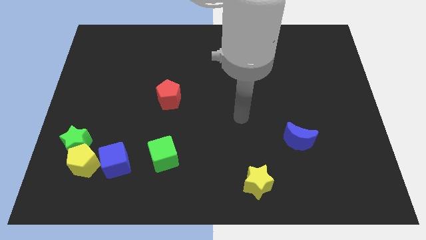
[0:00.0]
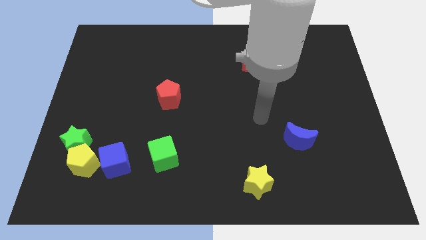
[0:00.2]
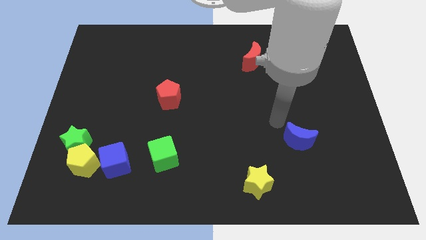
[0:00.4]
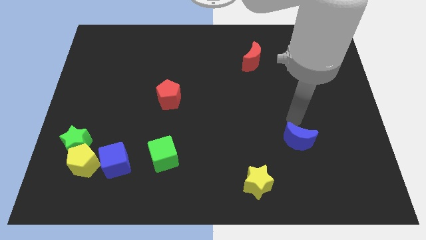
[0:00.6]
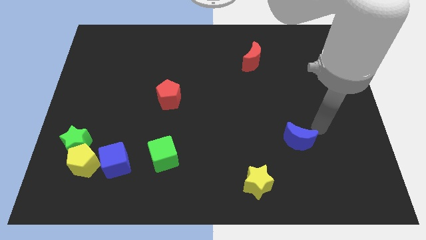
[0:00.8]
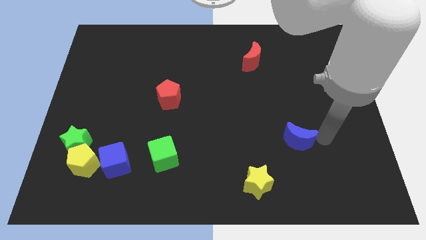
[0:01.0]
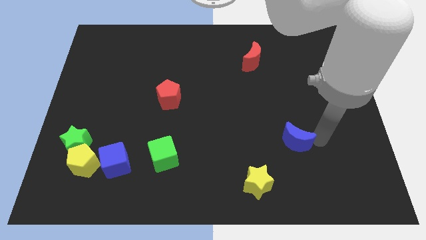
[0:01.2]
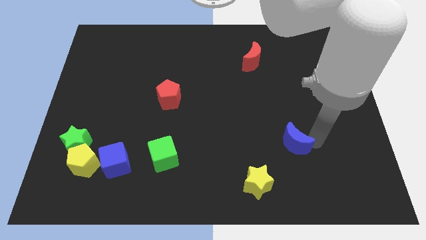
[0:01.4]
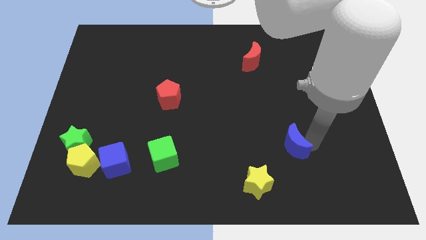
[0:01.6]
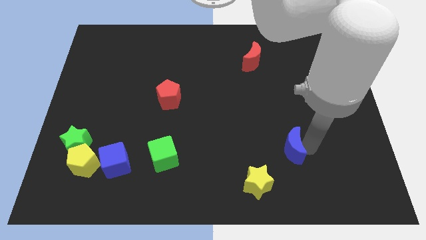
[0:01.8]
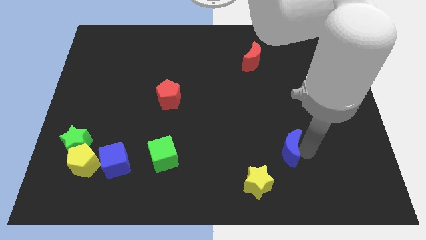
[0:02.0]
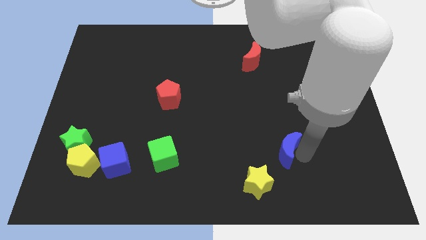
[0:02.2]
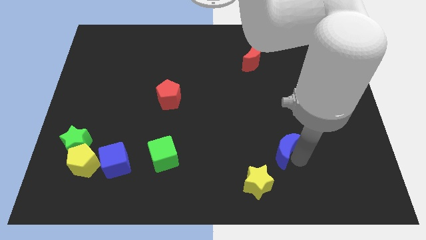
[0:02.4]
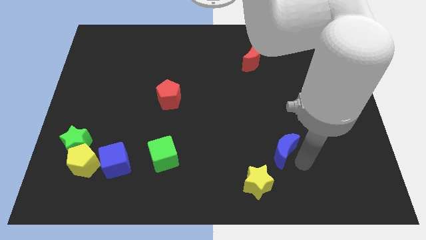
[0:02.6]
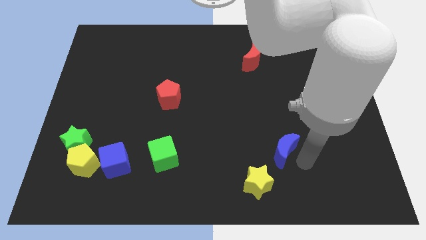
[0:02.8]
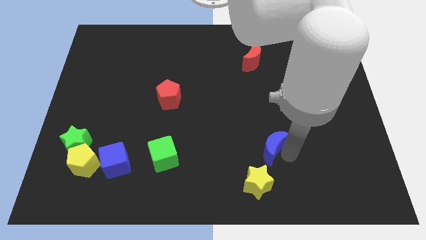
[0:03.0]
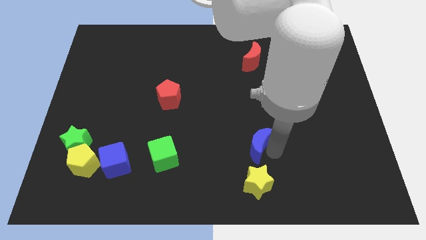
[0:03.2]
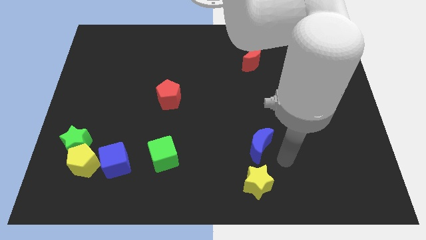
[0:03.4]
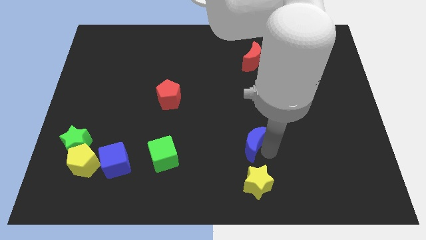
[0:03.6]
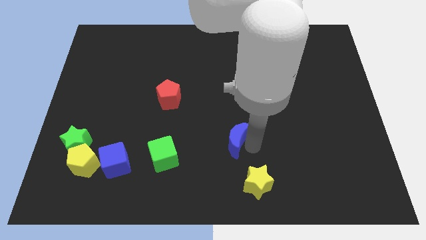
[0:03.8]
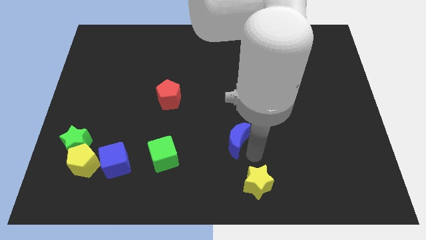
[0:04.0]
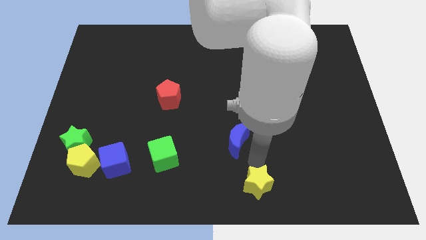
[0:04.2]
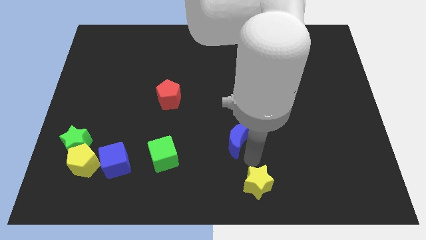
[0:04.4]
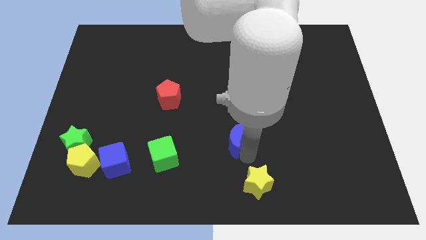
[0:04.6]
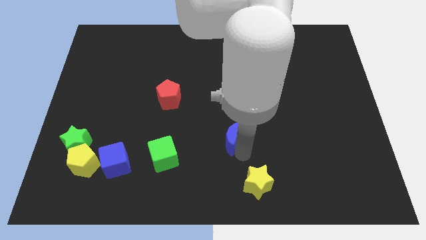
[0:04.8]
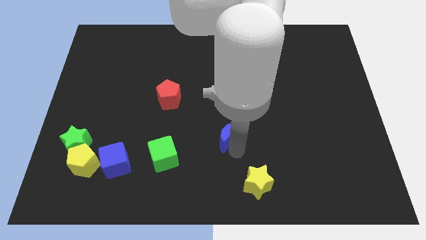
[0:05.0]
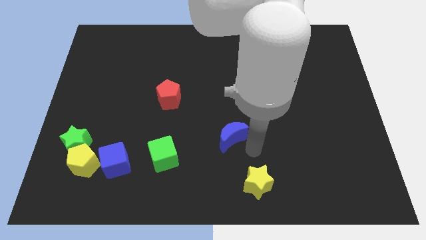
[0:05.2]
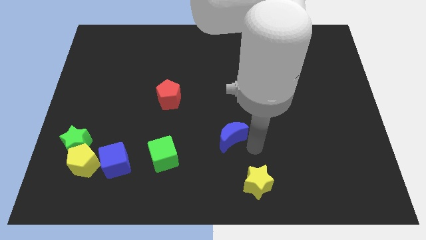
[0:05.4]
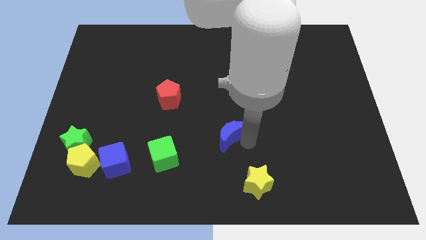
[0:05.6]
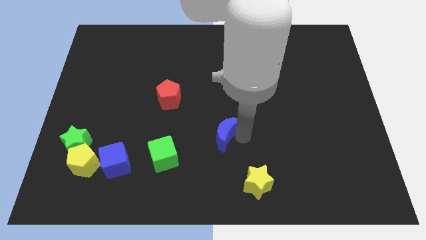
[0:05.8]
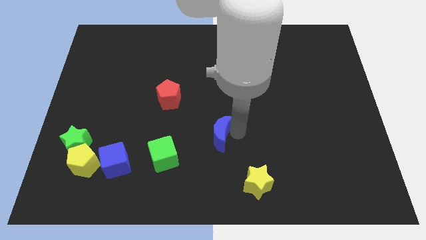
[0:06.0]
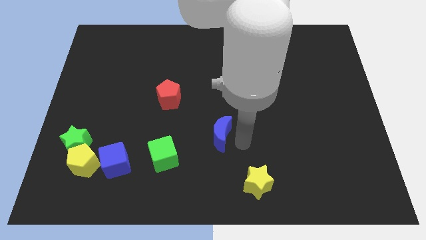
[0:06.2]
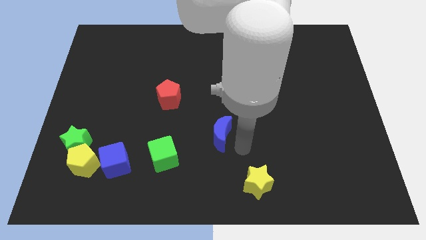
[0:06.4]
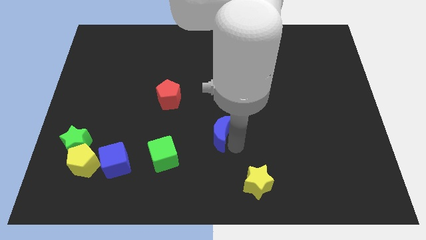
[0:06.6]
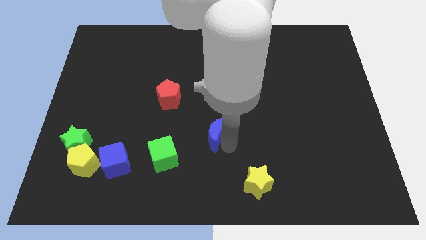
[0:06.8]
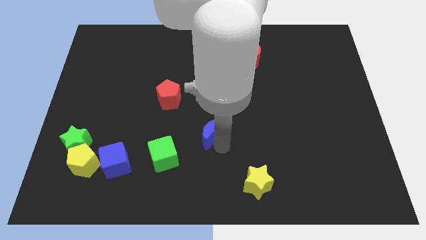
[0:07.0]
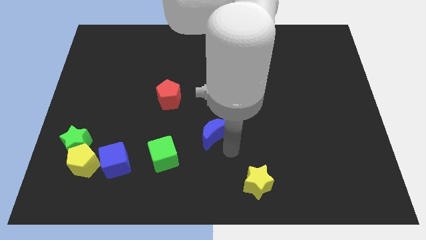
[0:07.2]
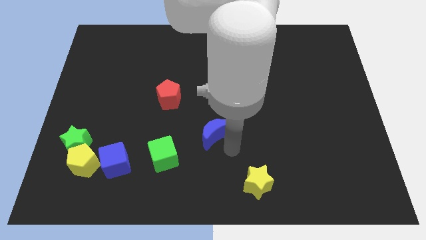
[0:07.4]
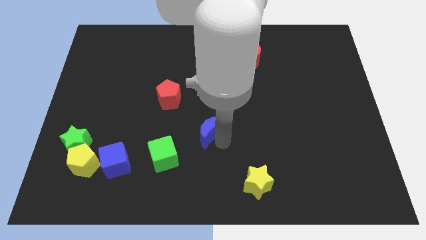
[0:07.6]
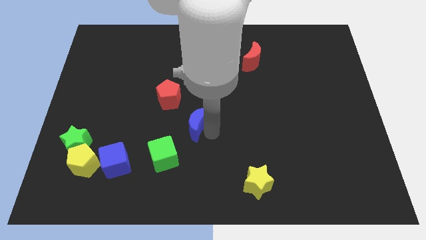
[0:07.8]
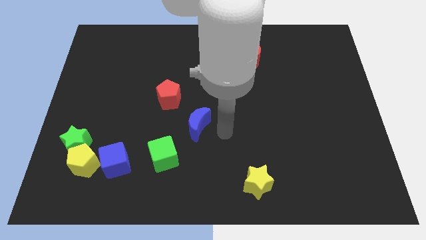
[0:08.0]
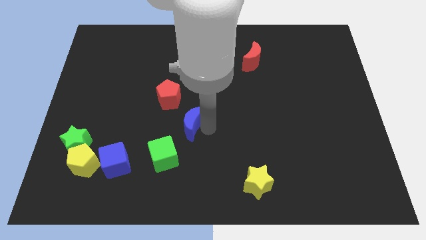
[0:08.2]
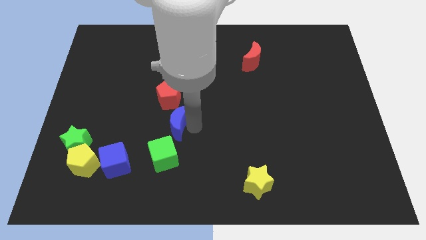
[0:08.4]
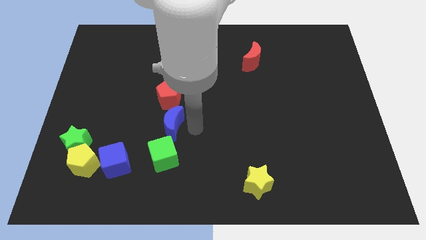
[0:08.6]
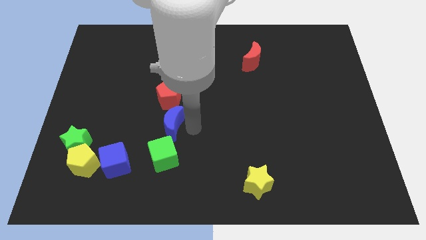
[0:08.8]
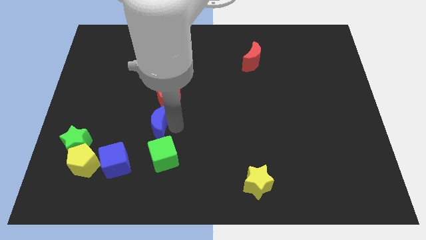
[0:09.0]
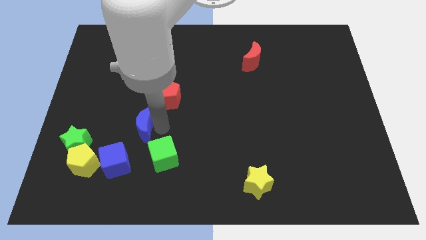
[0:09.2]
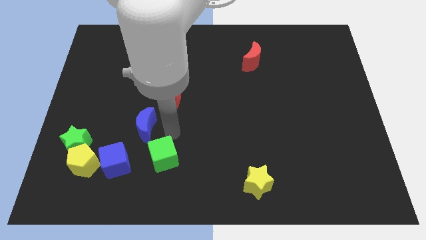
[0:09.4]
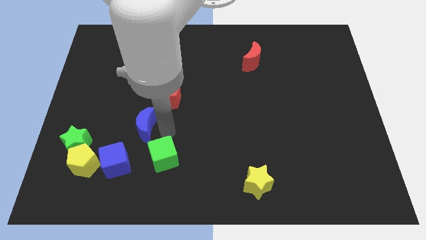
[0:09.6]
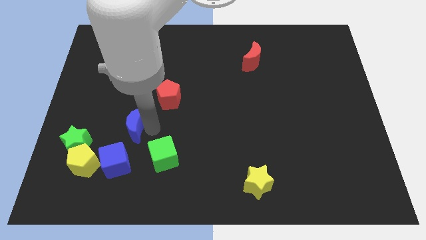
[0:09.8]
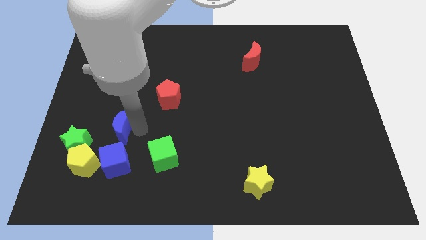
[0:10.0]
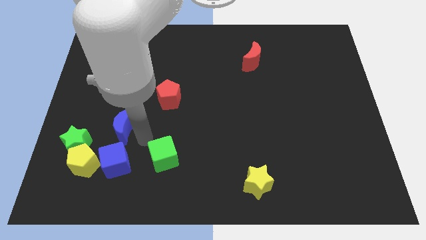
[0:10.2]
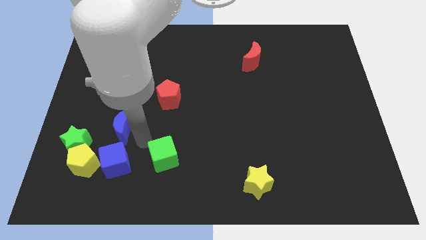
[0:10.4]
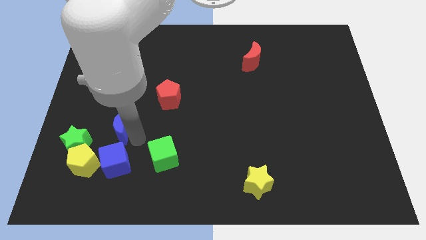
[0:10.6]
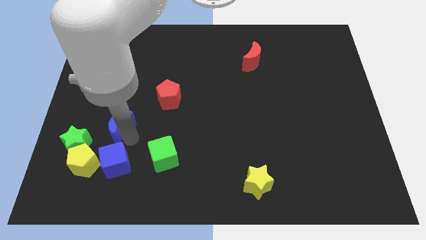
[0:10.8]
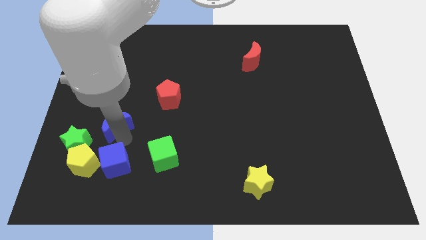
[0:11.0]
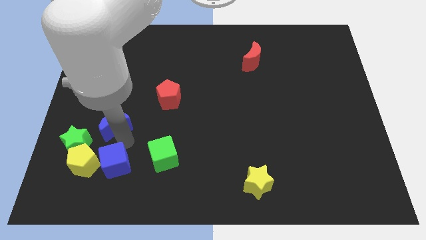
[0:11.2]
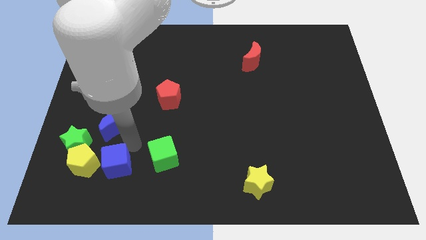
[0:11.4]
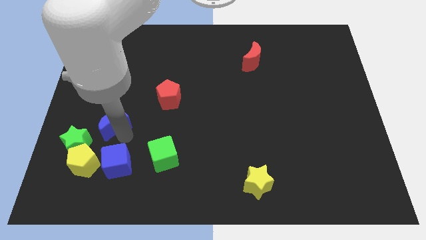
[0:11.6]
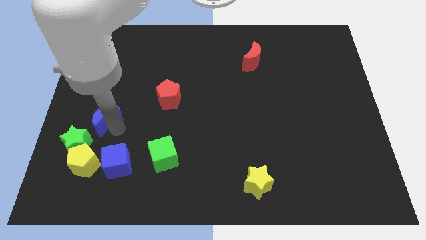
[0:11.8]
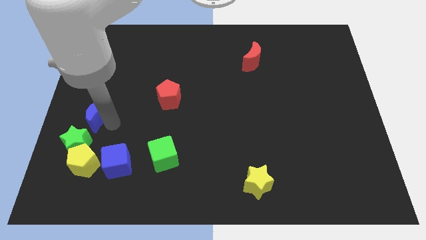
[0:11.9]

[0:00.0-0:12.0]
slide the blue moon to the left side

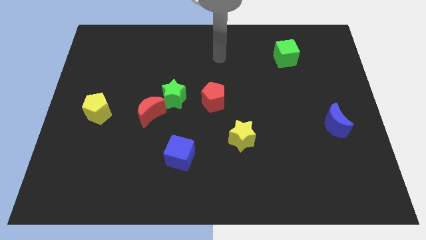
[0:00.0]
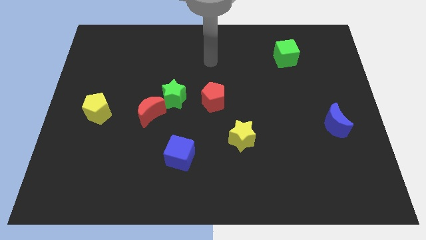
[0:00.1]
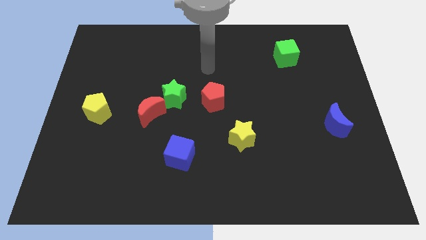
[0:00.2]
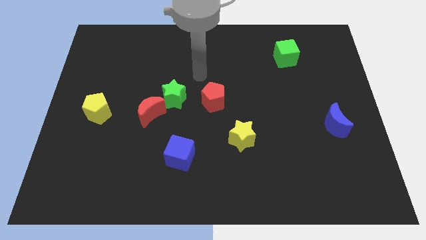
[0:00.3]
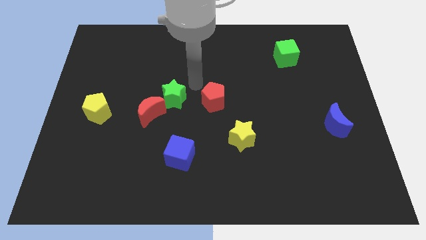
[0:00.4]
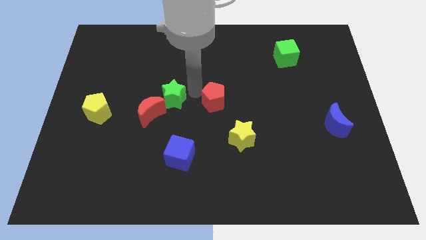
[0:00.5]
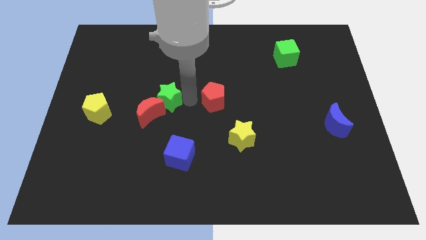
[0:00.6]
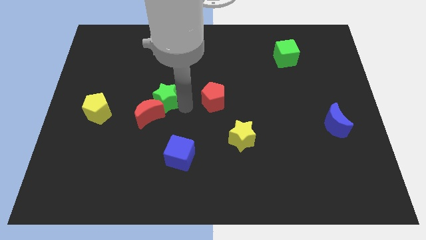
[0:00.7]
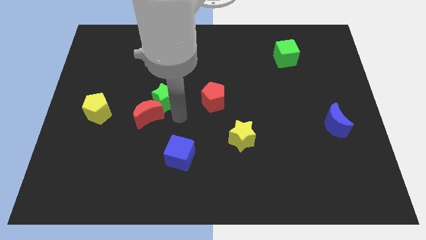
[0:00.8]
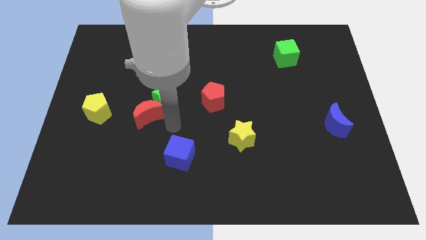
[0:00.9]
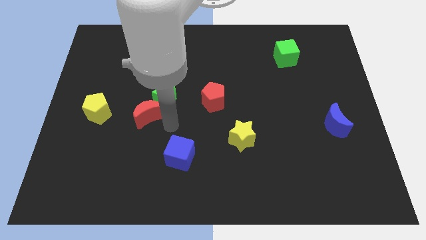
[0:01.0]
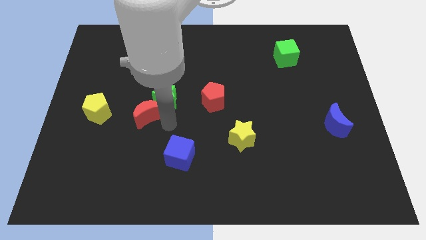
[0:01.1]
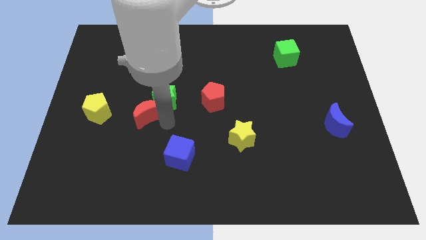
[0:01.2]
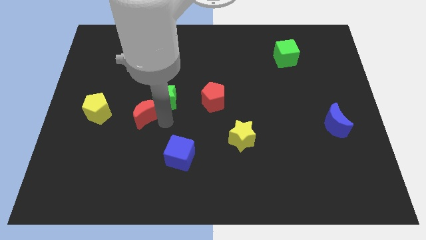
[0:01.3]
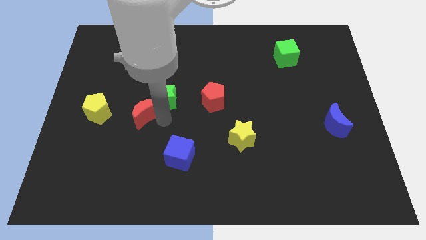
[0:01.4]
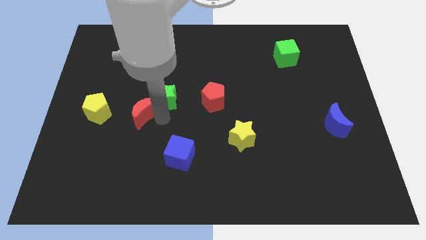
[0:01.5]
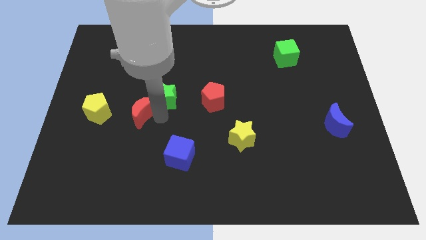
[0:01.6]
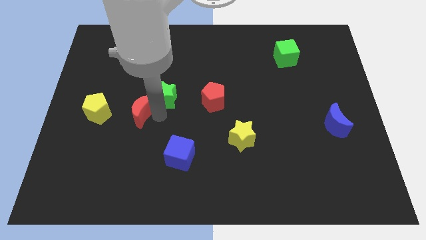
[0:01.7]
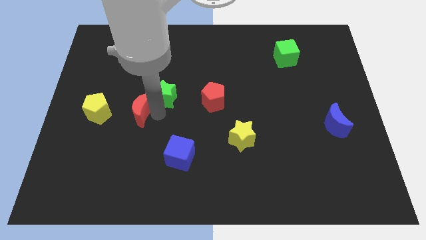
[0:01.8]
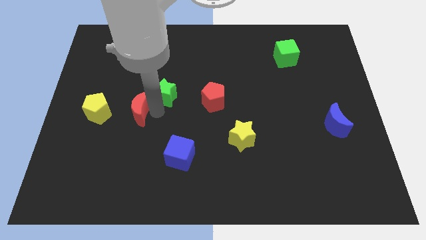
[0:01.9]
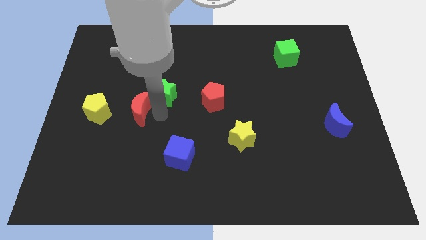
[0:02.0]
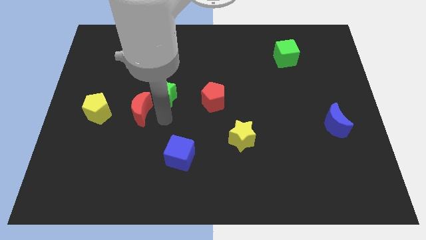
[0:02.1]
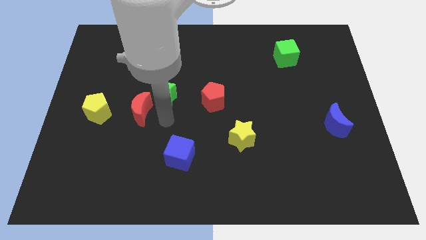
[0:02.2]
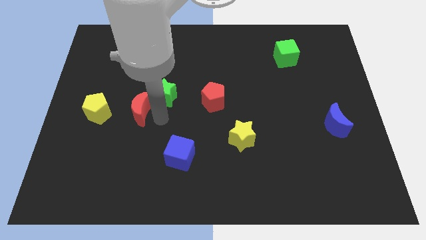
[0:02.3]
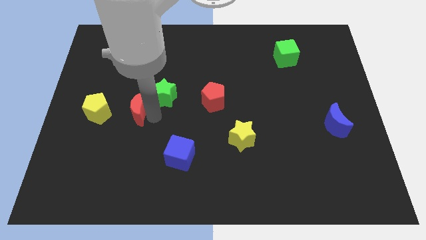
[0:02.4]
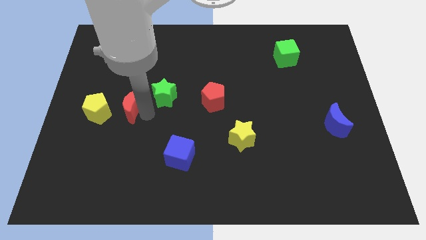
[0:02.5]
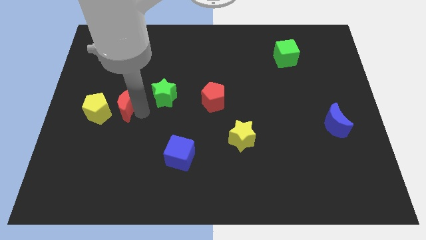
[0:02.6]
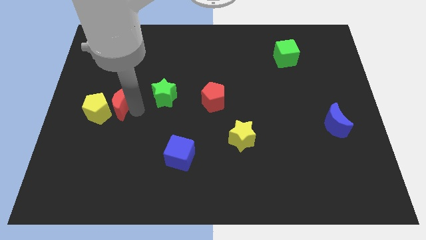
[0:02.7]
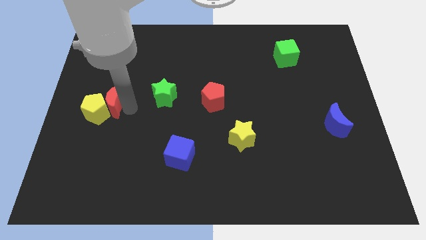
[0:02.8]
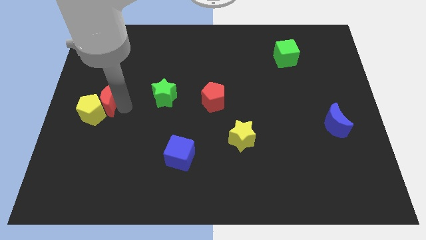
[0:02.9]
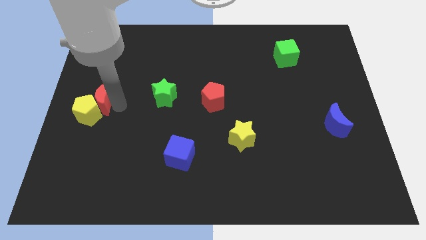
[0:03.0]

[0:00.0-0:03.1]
slide the red moon to the center left
